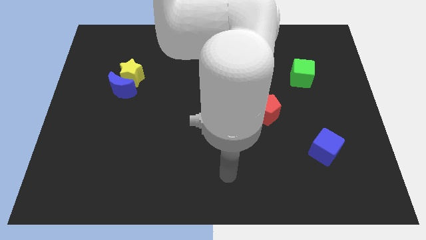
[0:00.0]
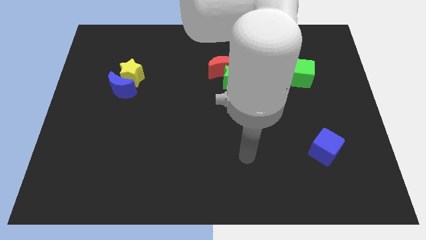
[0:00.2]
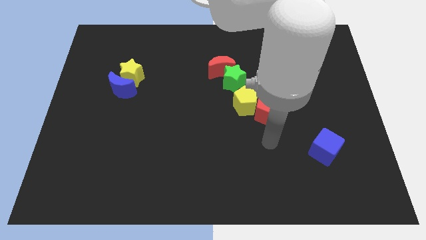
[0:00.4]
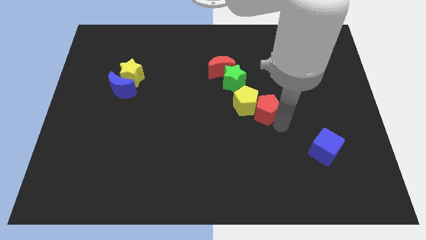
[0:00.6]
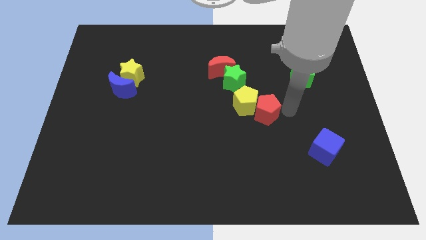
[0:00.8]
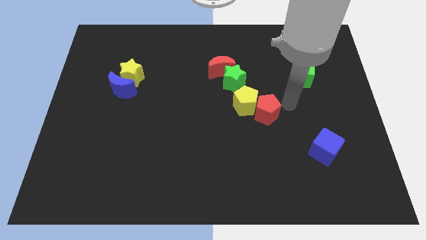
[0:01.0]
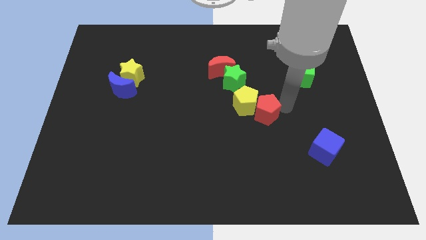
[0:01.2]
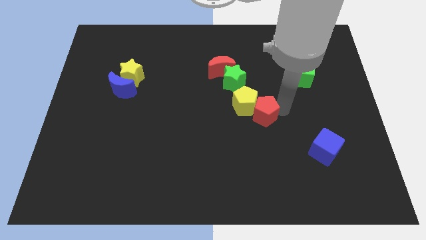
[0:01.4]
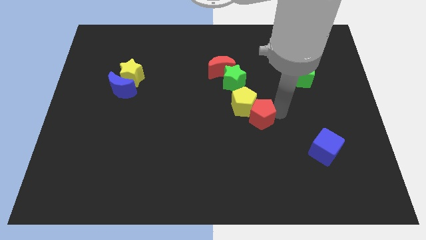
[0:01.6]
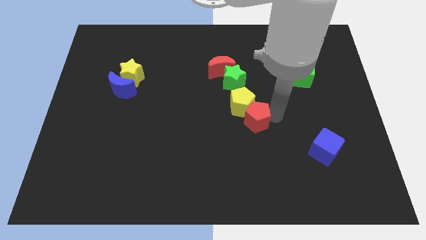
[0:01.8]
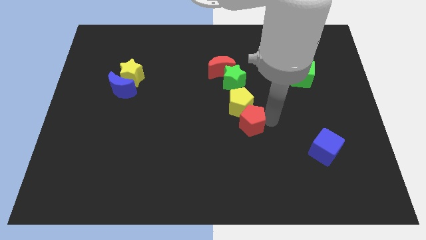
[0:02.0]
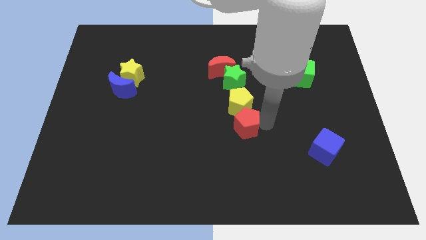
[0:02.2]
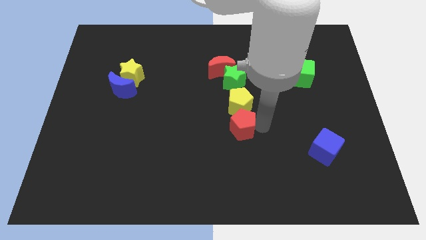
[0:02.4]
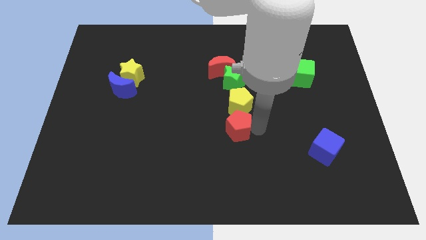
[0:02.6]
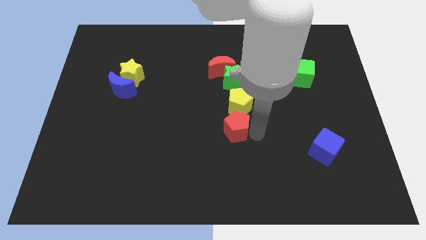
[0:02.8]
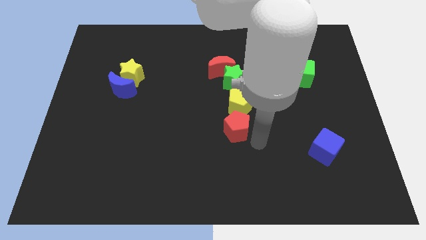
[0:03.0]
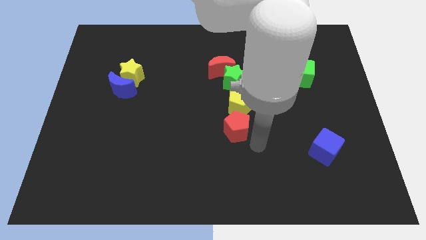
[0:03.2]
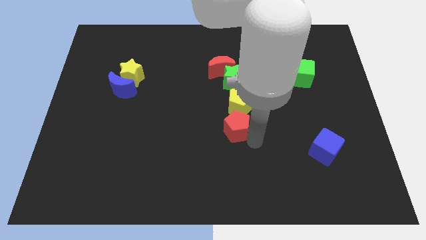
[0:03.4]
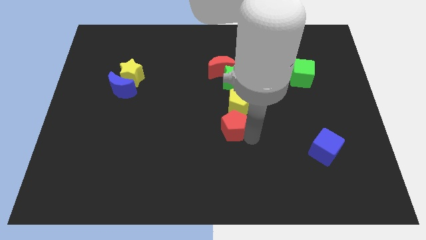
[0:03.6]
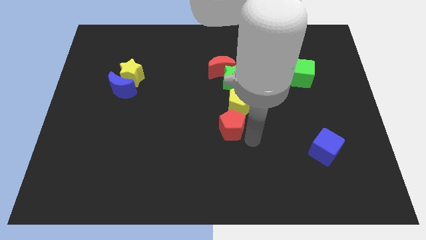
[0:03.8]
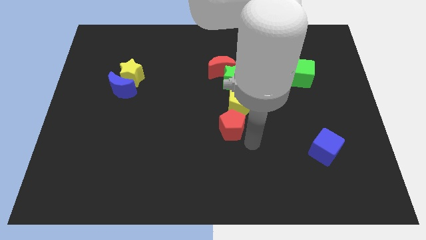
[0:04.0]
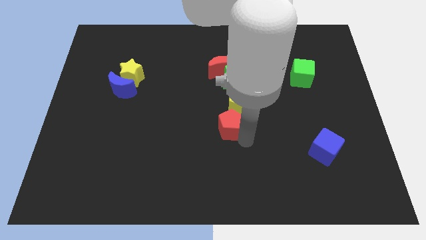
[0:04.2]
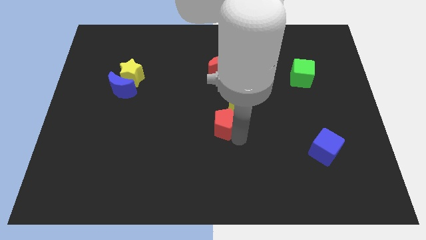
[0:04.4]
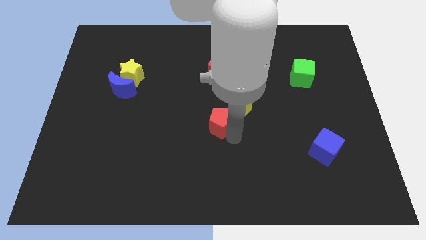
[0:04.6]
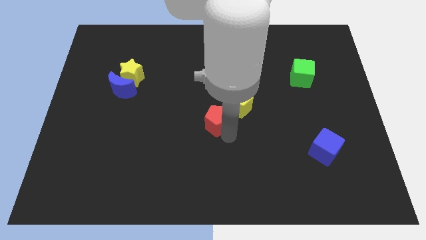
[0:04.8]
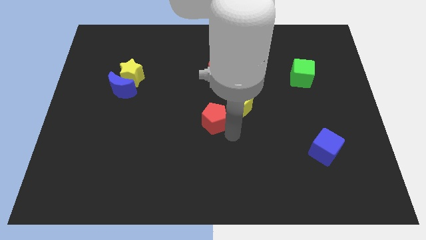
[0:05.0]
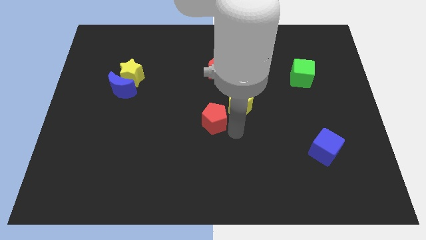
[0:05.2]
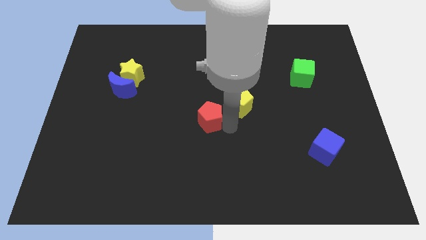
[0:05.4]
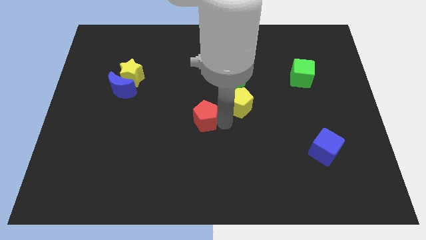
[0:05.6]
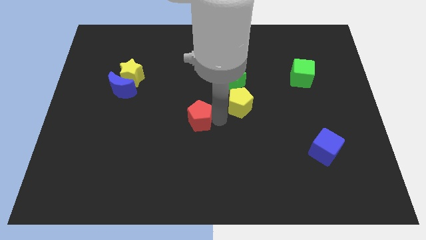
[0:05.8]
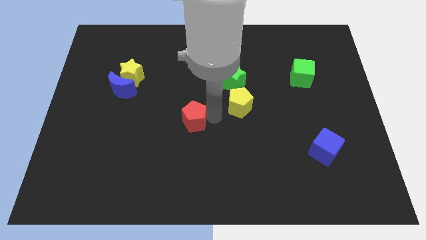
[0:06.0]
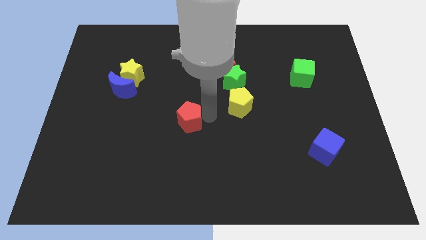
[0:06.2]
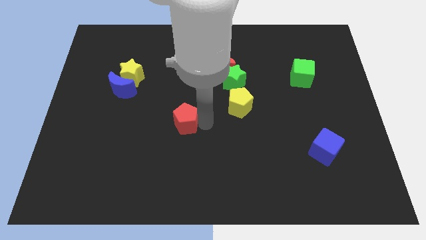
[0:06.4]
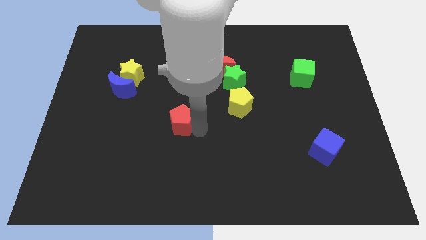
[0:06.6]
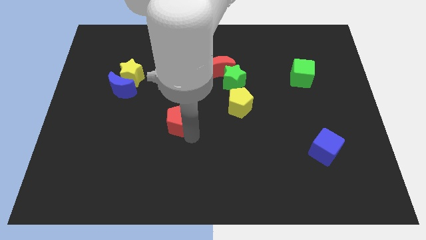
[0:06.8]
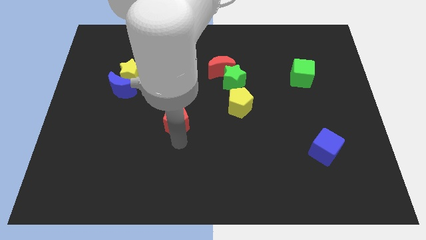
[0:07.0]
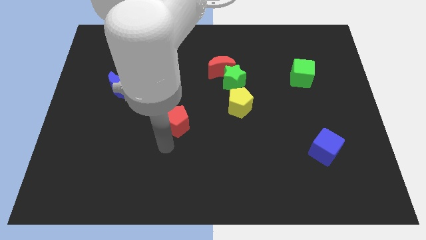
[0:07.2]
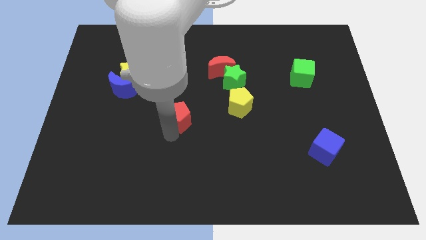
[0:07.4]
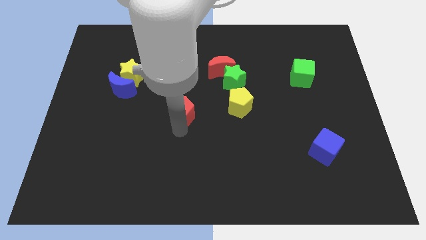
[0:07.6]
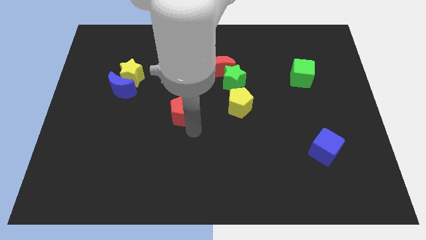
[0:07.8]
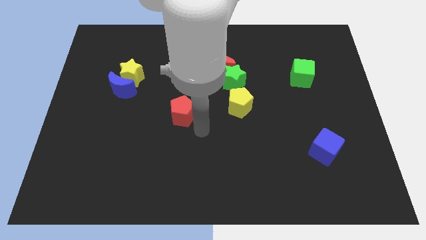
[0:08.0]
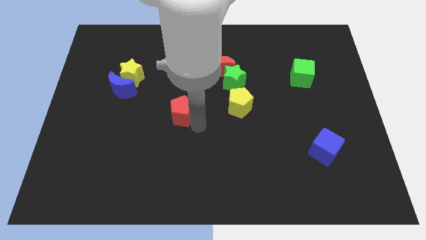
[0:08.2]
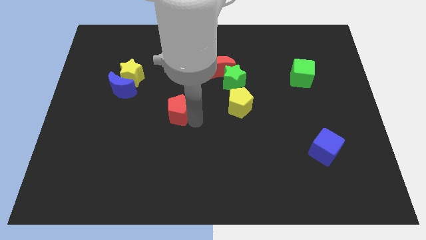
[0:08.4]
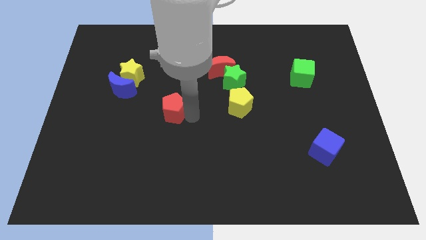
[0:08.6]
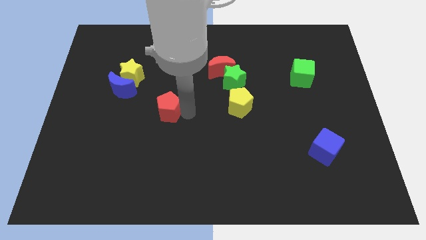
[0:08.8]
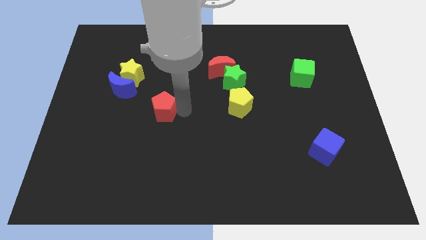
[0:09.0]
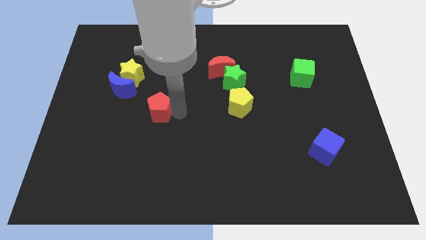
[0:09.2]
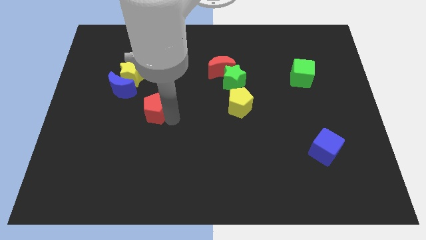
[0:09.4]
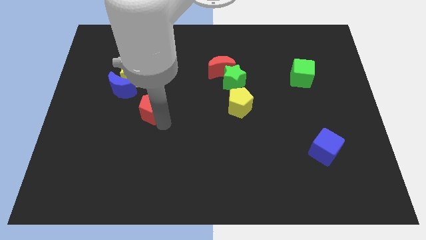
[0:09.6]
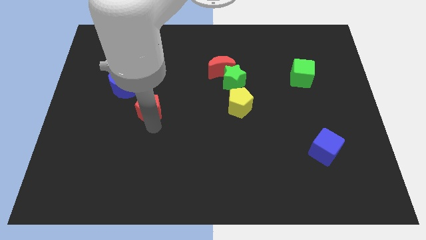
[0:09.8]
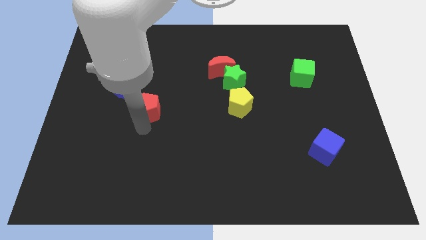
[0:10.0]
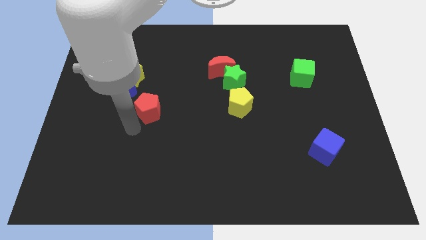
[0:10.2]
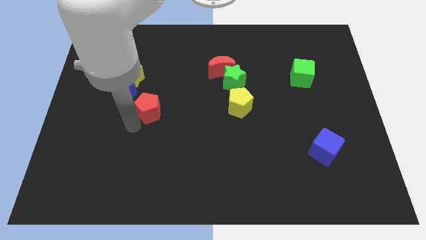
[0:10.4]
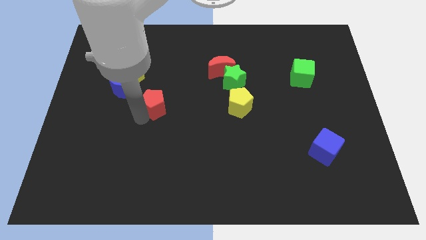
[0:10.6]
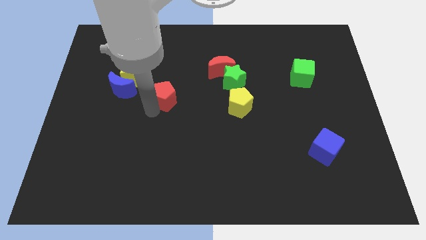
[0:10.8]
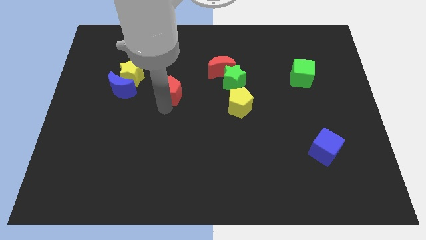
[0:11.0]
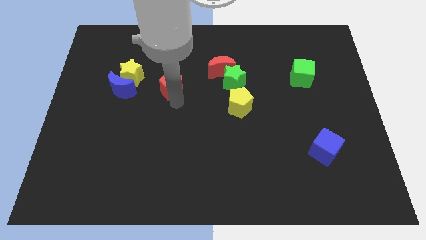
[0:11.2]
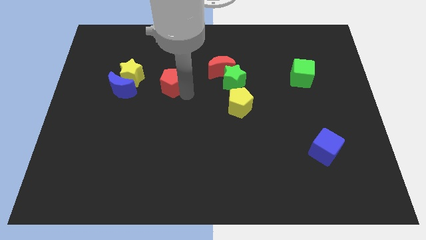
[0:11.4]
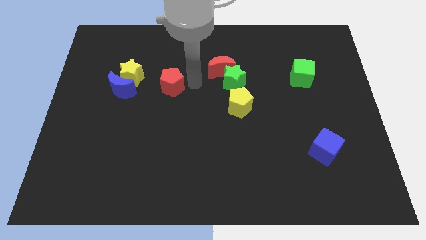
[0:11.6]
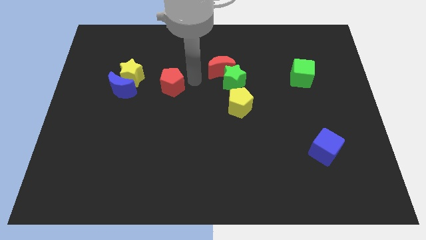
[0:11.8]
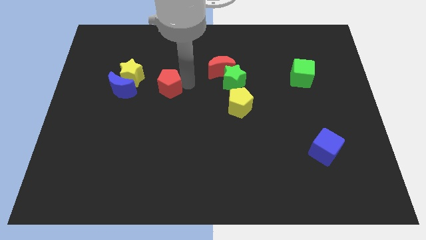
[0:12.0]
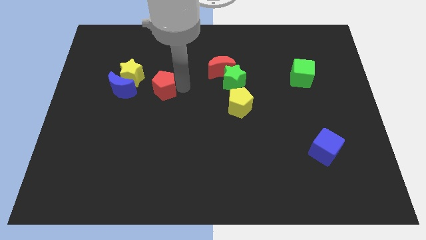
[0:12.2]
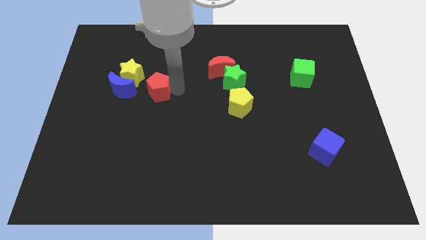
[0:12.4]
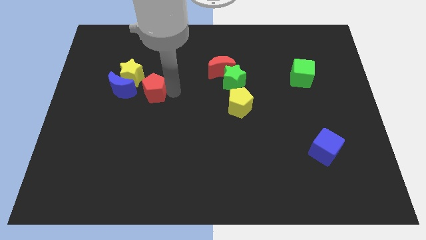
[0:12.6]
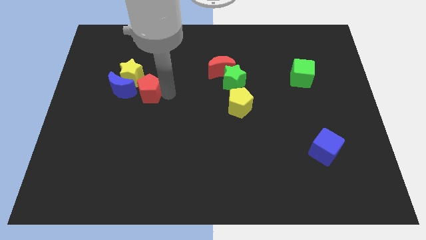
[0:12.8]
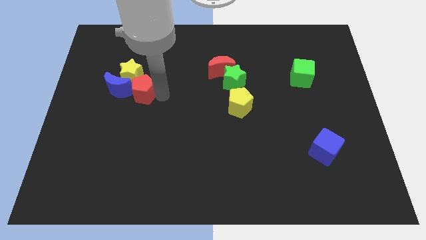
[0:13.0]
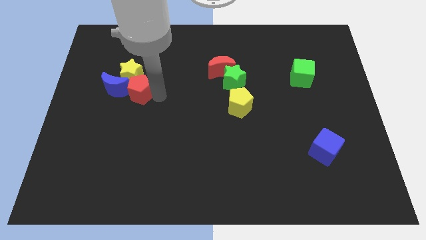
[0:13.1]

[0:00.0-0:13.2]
slide the red pentagon close to the blue moon

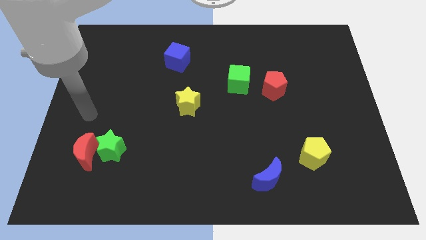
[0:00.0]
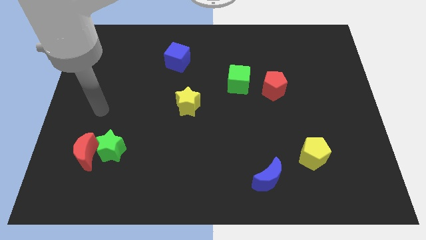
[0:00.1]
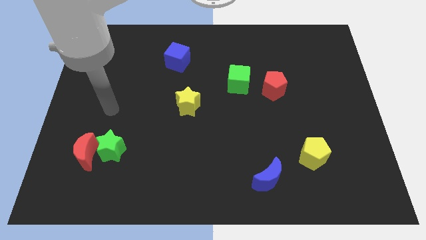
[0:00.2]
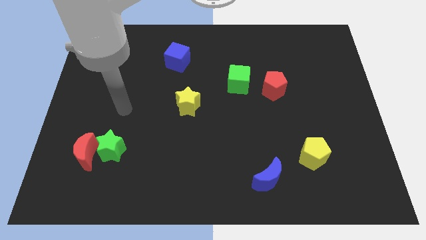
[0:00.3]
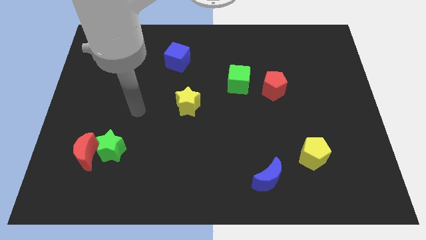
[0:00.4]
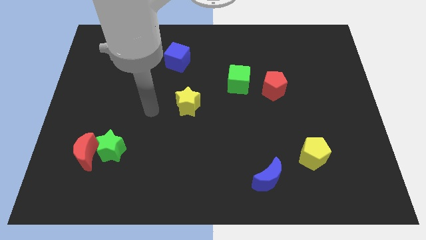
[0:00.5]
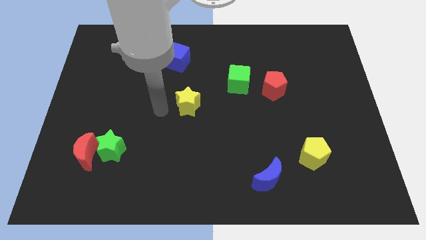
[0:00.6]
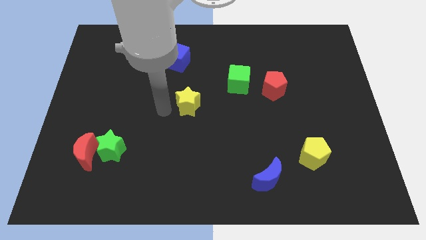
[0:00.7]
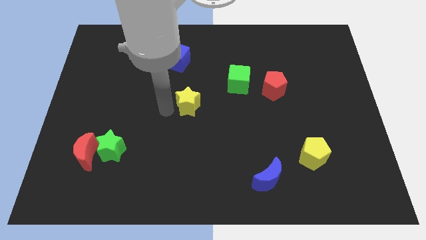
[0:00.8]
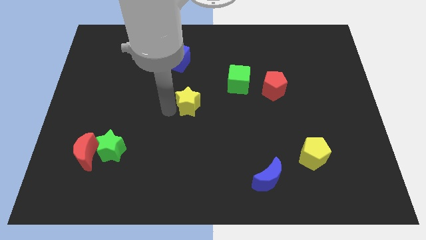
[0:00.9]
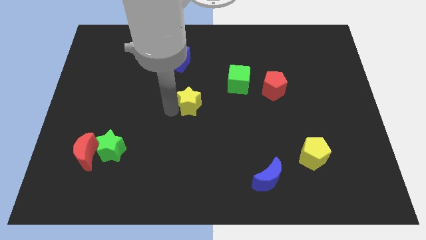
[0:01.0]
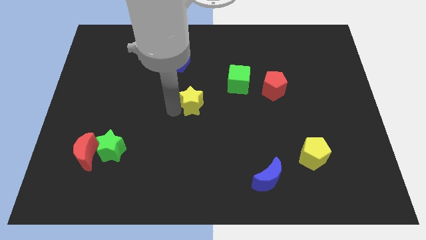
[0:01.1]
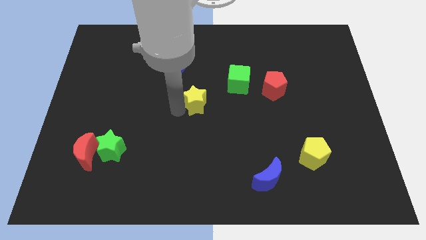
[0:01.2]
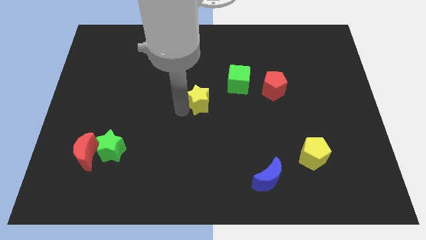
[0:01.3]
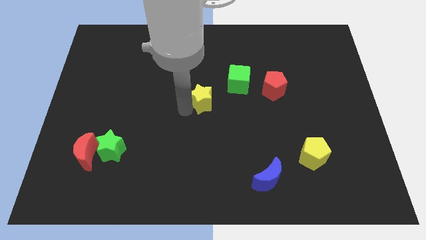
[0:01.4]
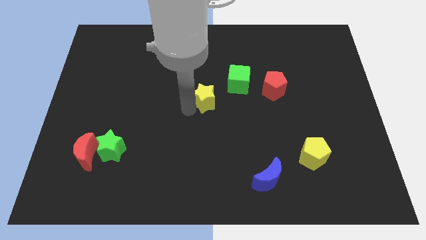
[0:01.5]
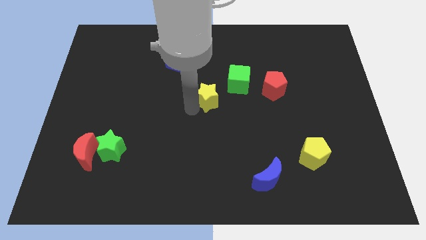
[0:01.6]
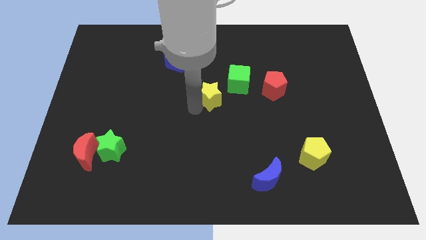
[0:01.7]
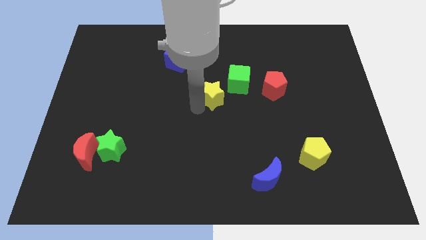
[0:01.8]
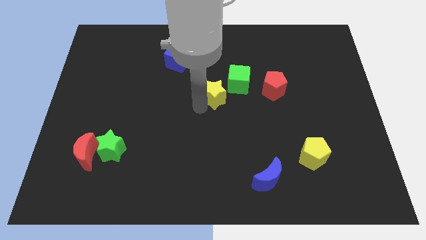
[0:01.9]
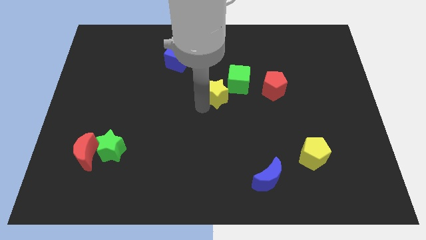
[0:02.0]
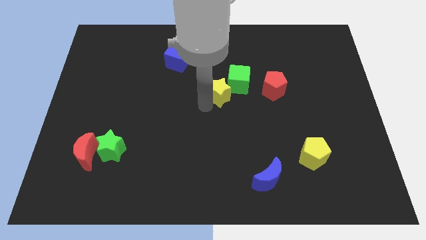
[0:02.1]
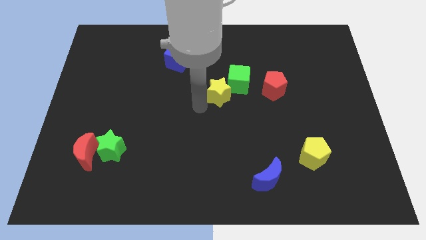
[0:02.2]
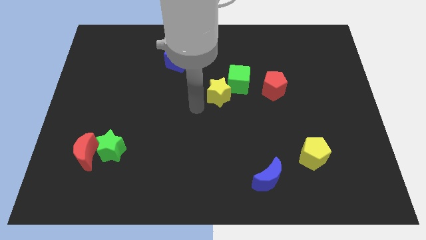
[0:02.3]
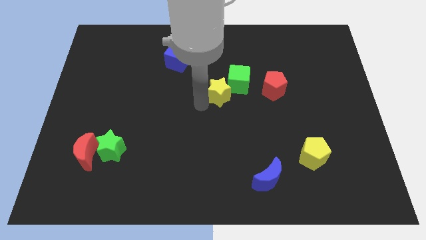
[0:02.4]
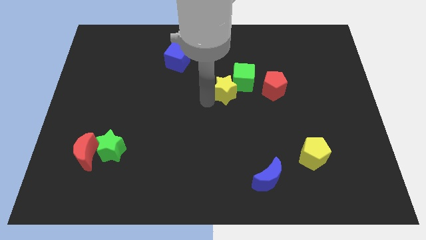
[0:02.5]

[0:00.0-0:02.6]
move the yellow star to the green cube
